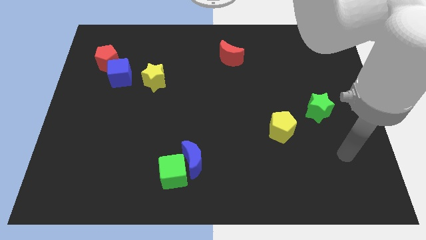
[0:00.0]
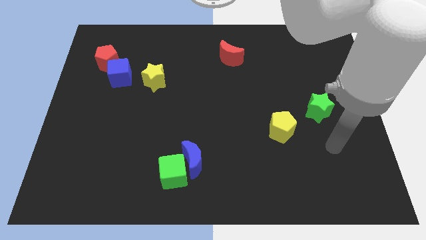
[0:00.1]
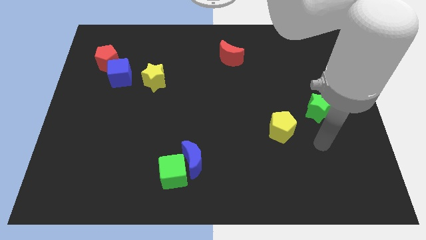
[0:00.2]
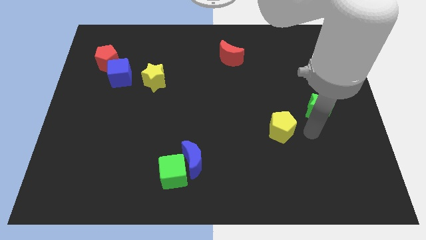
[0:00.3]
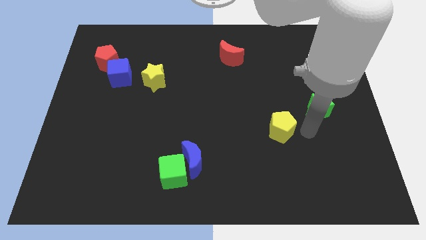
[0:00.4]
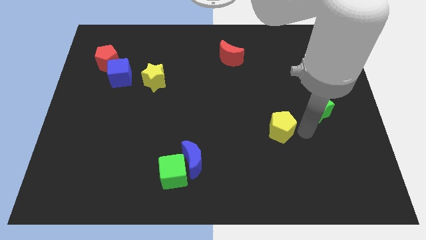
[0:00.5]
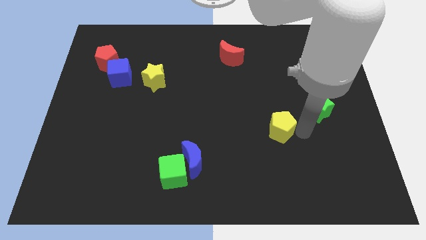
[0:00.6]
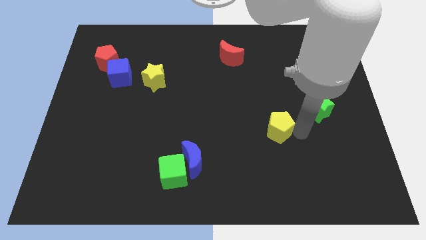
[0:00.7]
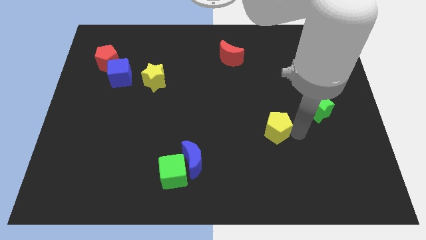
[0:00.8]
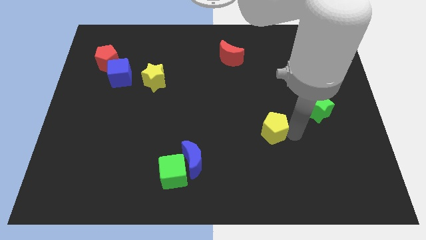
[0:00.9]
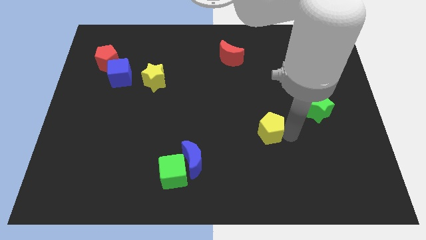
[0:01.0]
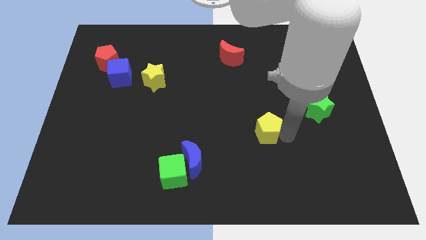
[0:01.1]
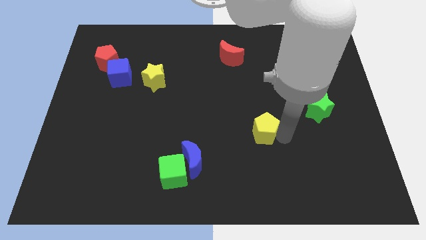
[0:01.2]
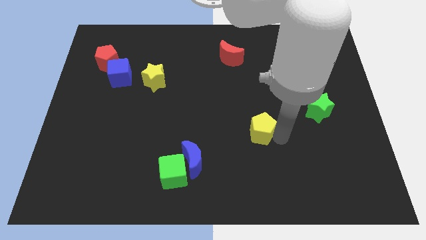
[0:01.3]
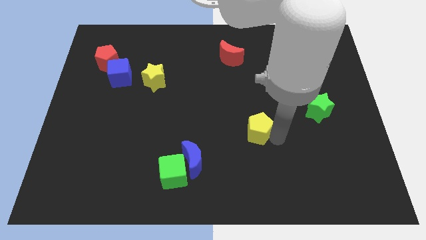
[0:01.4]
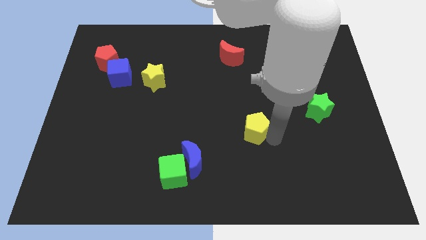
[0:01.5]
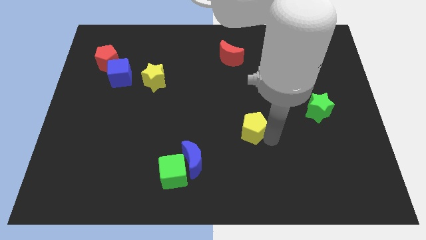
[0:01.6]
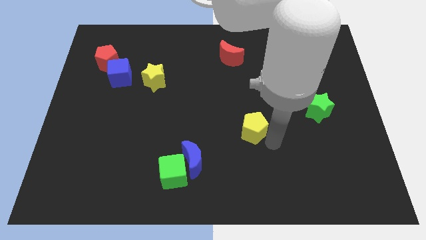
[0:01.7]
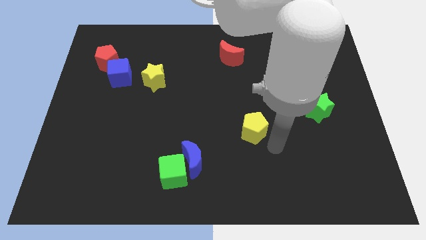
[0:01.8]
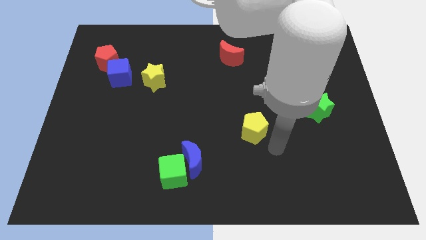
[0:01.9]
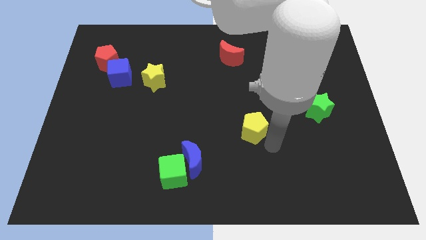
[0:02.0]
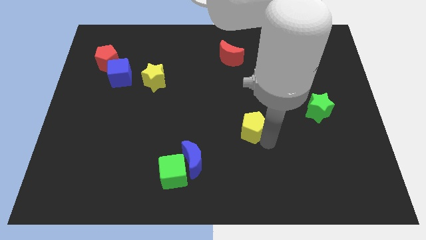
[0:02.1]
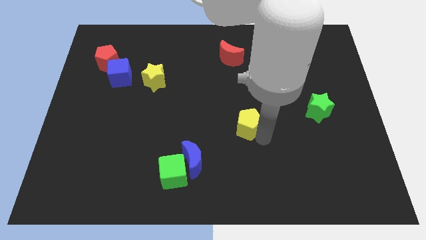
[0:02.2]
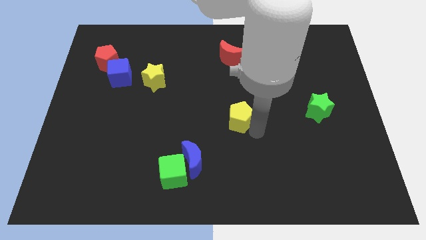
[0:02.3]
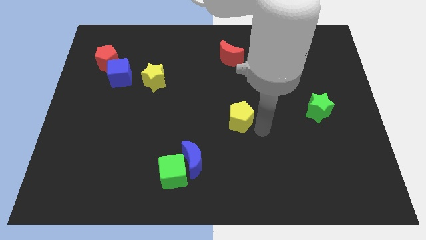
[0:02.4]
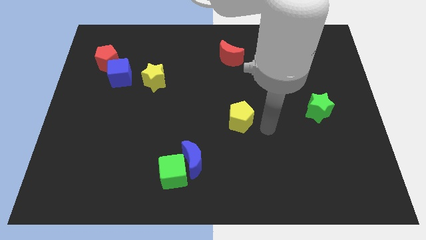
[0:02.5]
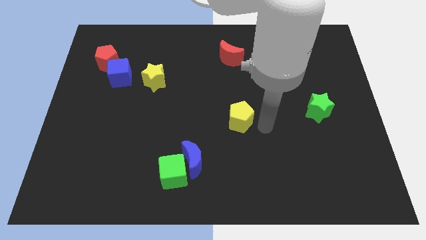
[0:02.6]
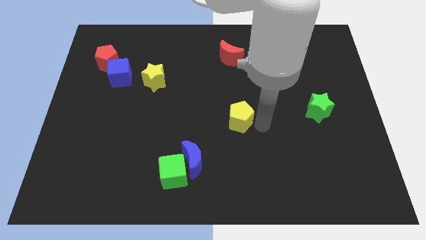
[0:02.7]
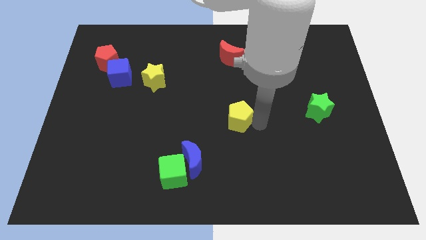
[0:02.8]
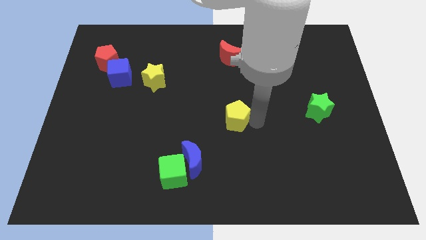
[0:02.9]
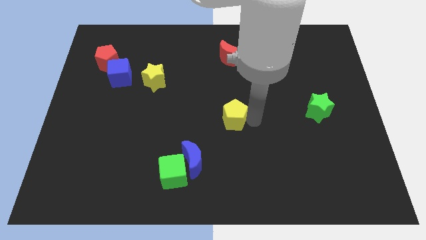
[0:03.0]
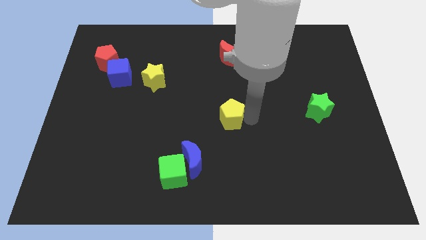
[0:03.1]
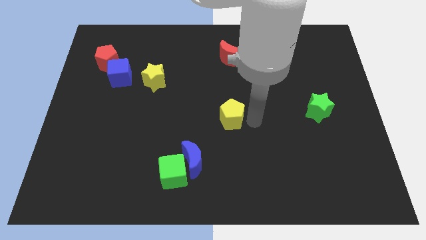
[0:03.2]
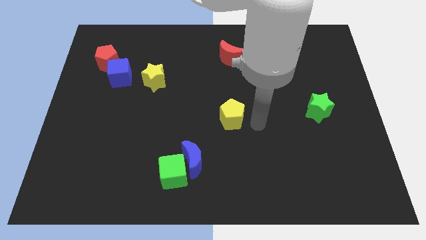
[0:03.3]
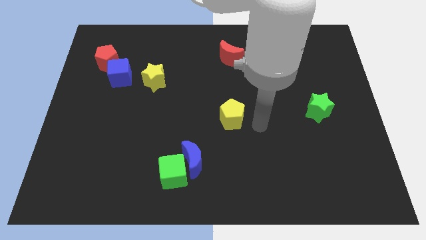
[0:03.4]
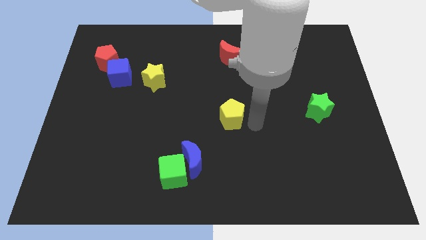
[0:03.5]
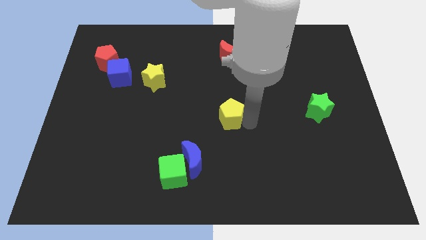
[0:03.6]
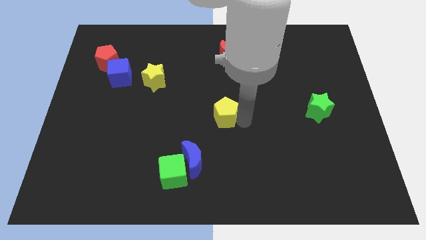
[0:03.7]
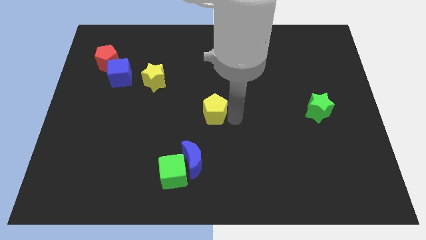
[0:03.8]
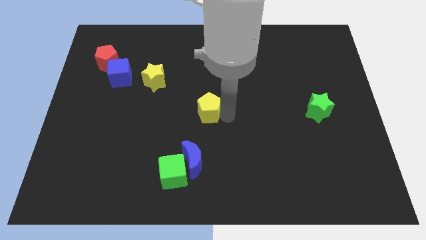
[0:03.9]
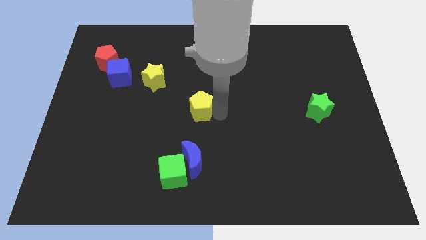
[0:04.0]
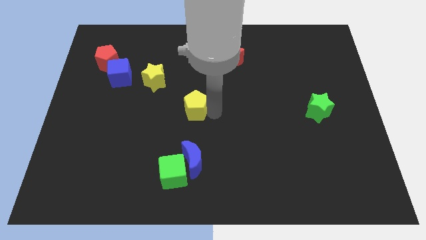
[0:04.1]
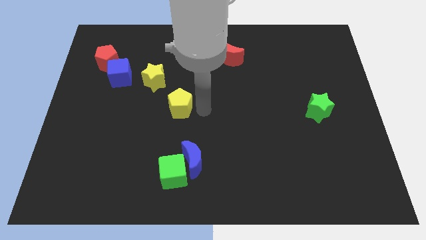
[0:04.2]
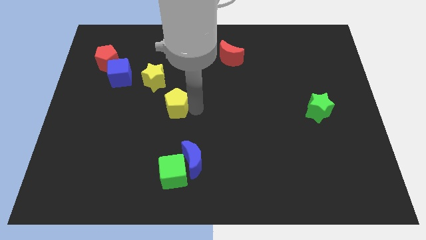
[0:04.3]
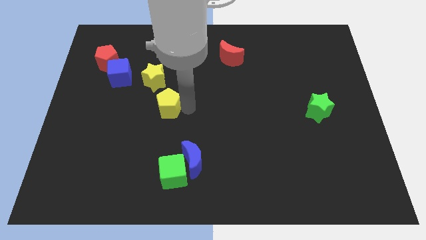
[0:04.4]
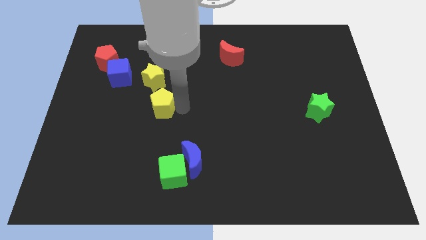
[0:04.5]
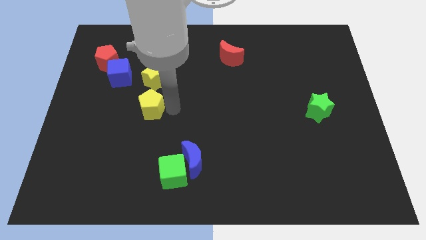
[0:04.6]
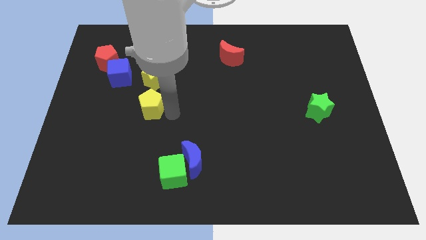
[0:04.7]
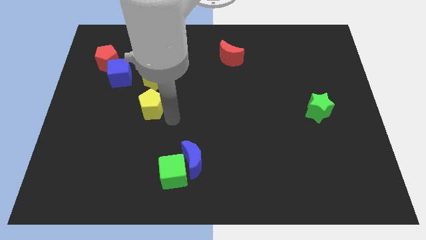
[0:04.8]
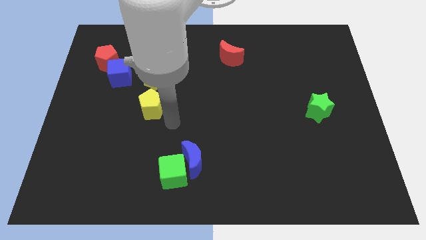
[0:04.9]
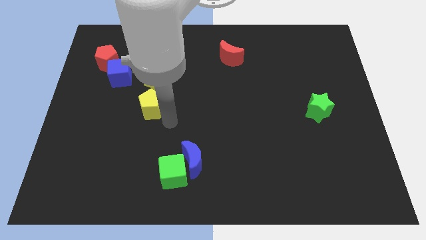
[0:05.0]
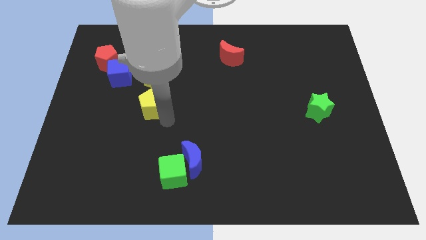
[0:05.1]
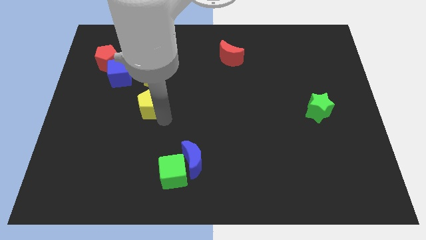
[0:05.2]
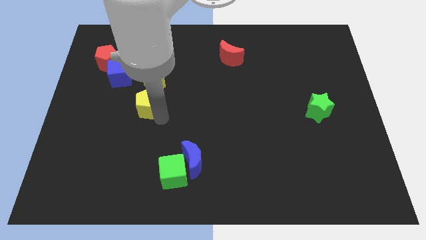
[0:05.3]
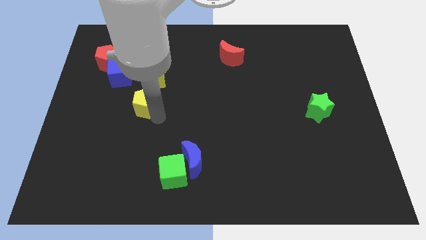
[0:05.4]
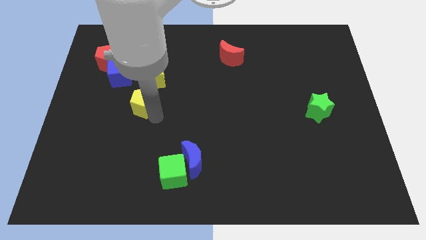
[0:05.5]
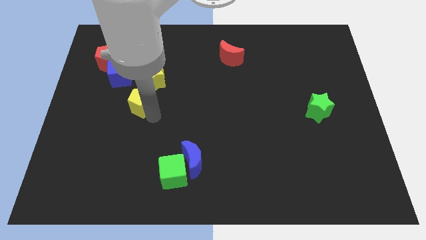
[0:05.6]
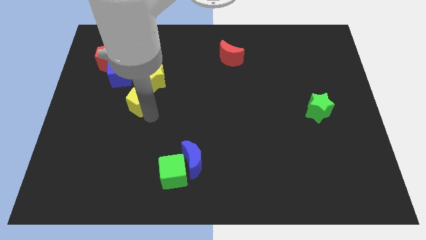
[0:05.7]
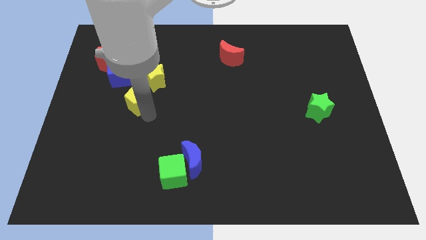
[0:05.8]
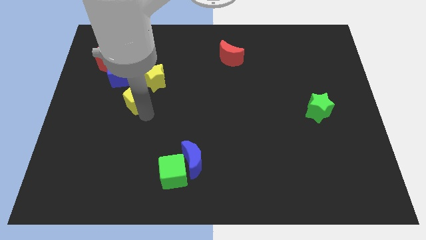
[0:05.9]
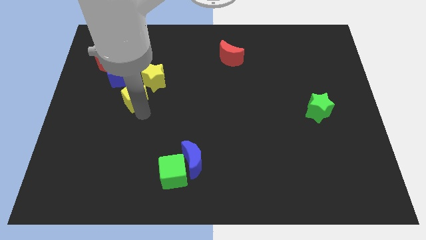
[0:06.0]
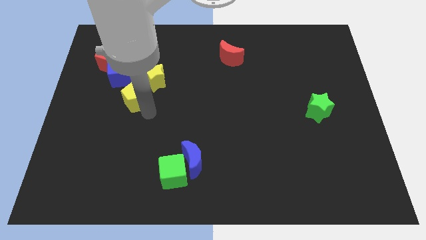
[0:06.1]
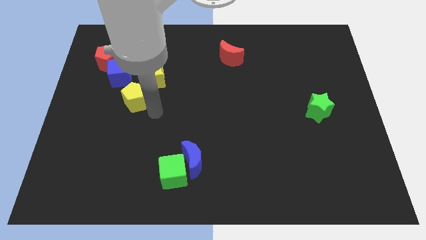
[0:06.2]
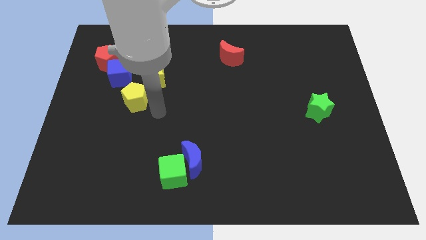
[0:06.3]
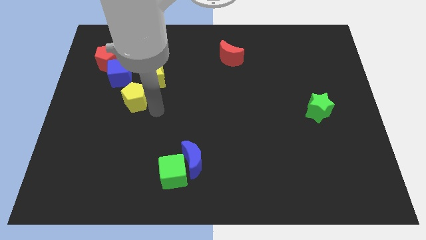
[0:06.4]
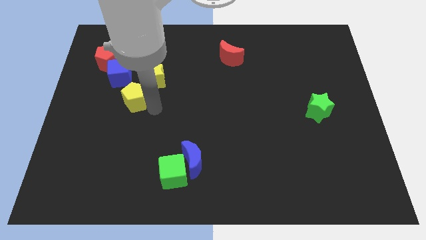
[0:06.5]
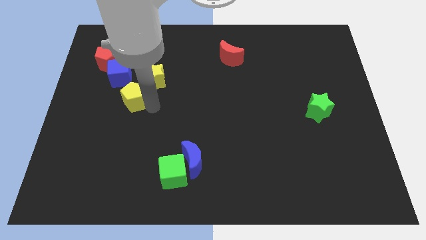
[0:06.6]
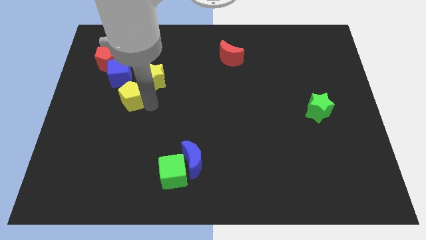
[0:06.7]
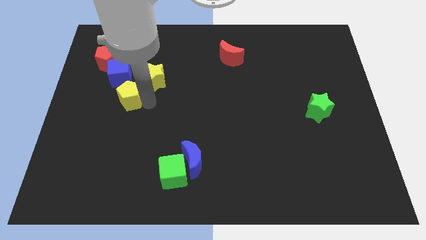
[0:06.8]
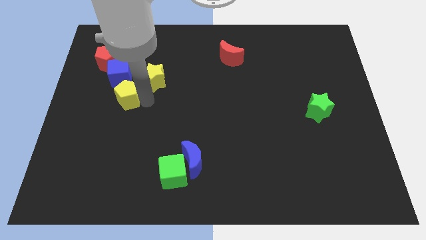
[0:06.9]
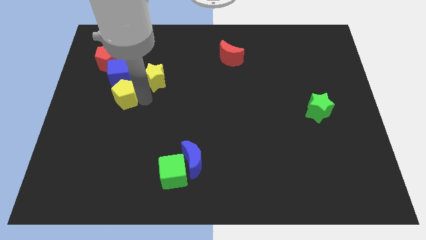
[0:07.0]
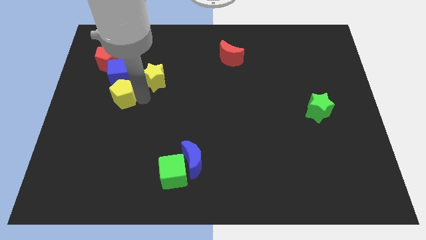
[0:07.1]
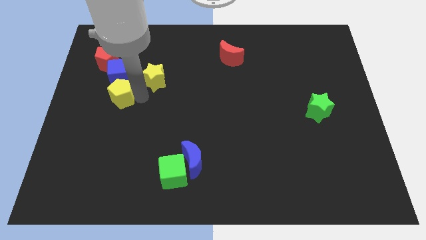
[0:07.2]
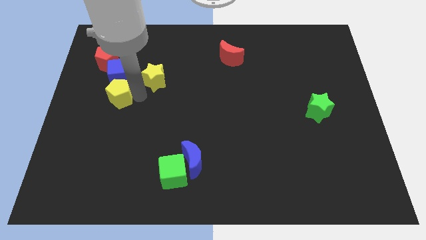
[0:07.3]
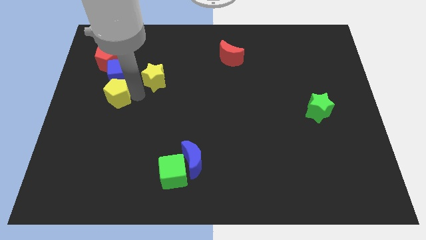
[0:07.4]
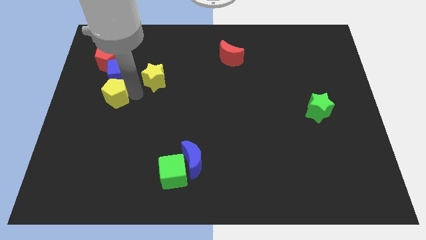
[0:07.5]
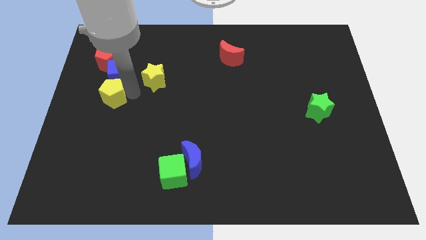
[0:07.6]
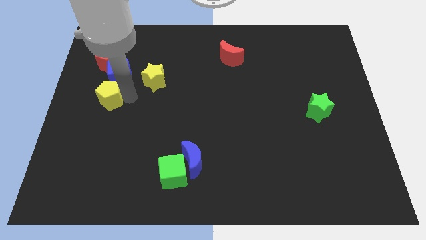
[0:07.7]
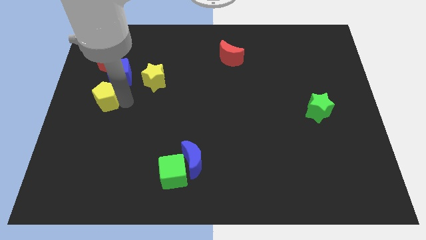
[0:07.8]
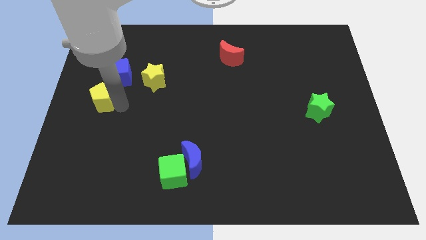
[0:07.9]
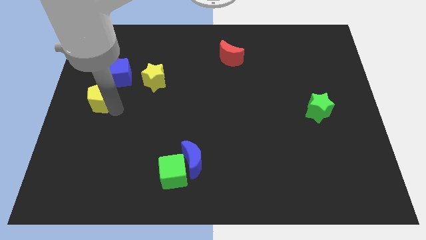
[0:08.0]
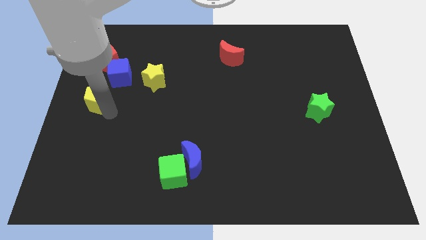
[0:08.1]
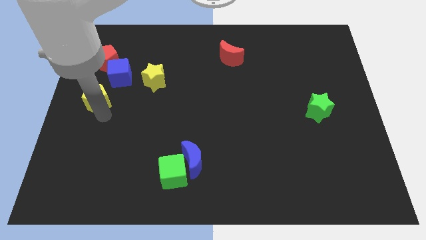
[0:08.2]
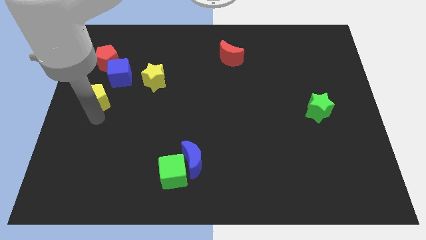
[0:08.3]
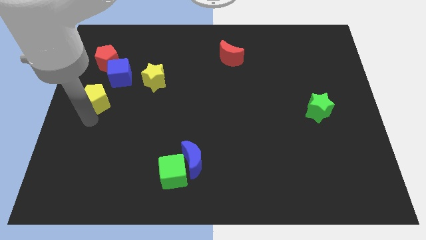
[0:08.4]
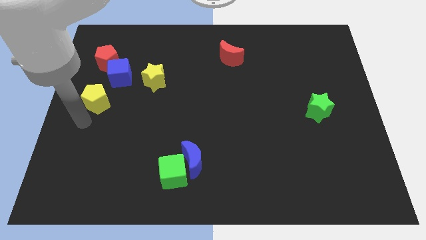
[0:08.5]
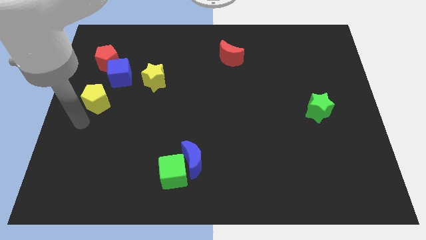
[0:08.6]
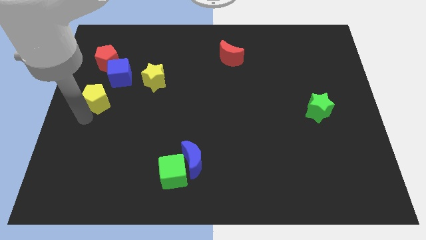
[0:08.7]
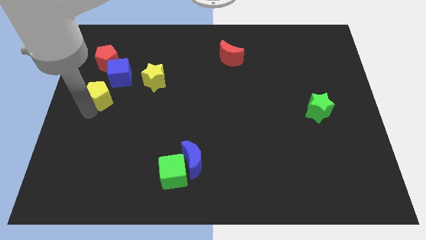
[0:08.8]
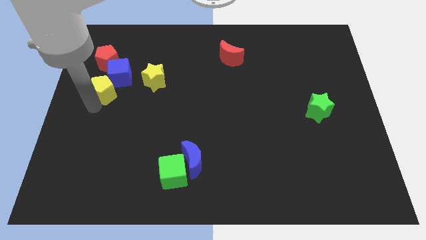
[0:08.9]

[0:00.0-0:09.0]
move the yellow pentagon left of the yellow star
